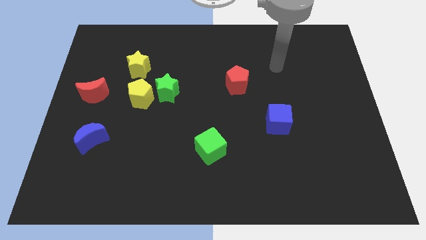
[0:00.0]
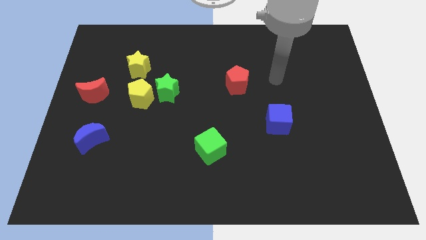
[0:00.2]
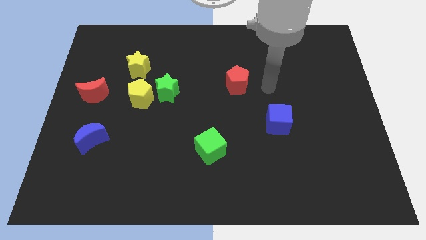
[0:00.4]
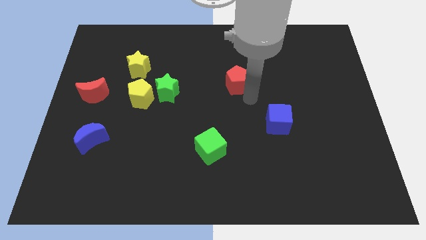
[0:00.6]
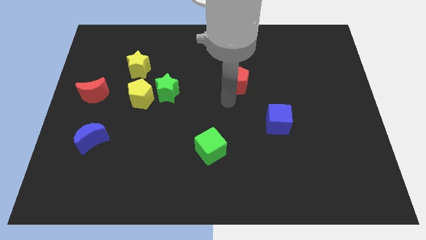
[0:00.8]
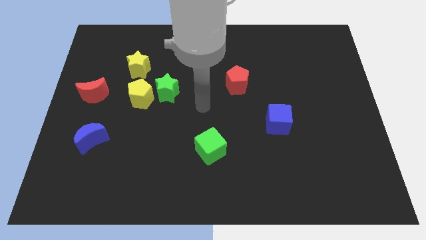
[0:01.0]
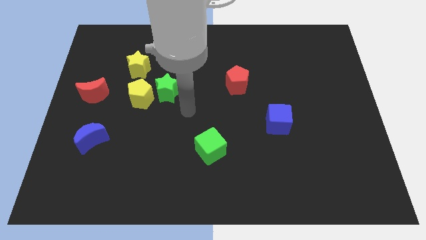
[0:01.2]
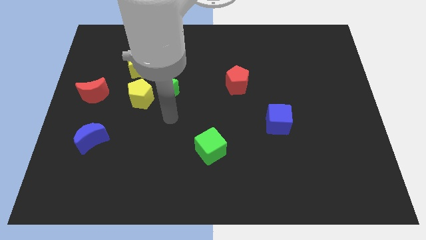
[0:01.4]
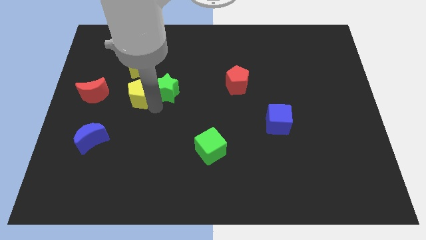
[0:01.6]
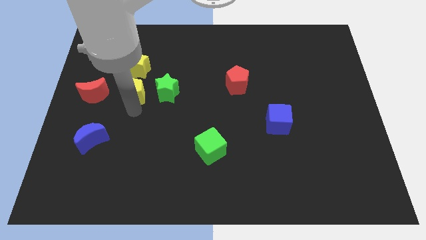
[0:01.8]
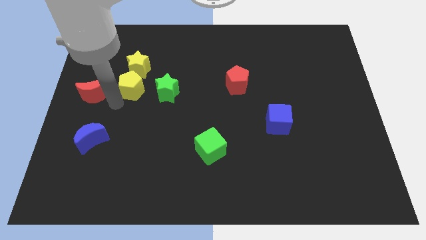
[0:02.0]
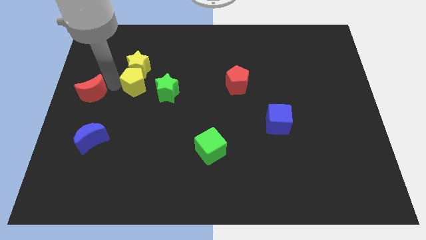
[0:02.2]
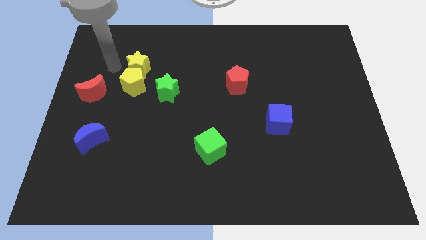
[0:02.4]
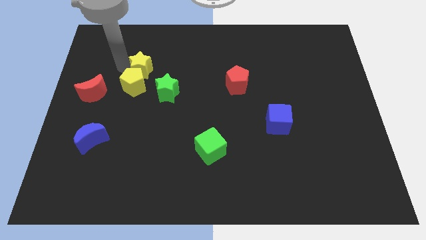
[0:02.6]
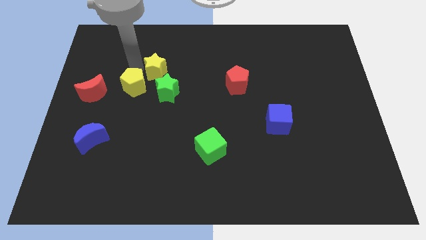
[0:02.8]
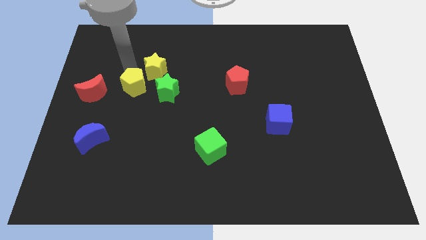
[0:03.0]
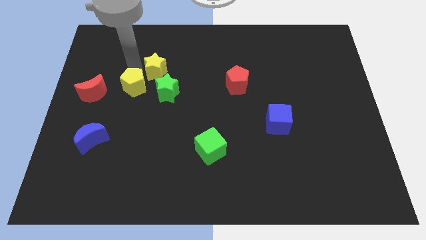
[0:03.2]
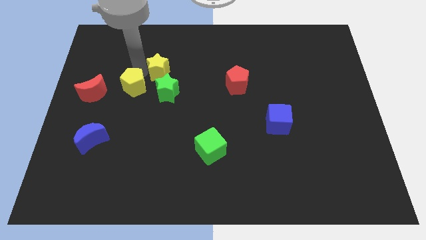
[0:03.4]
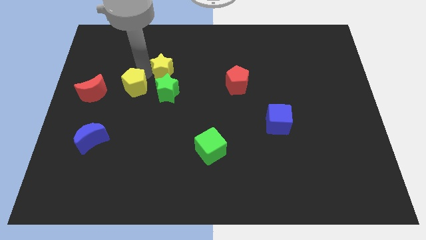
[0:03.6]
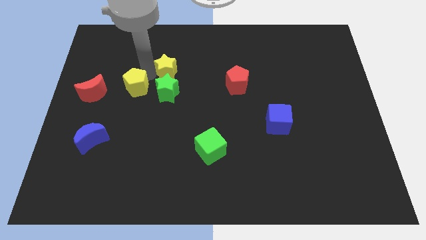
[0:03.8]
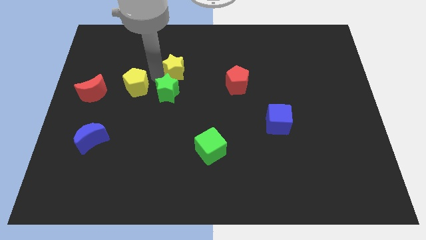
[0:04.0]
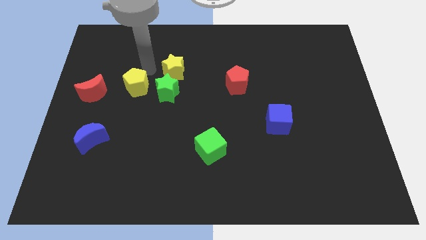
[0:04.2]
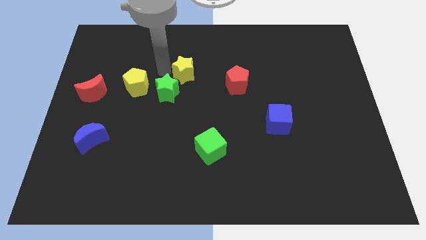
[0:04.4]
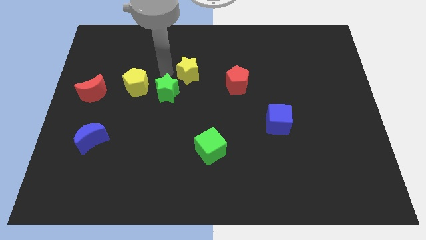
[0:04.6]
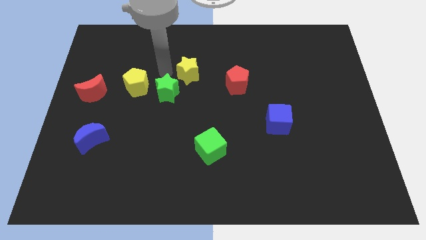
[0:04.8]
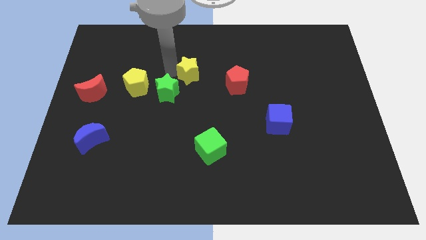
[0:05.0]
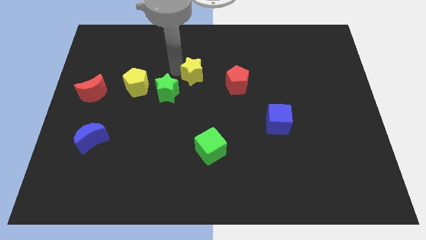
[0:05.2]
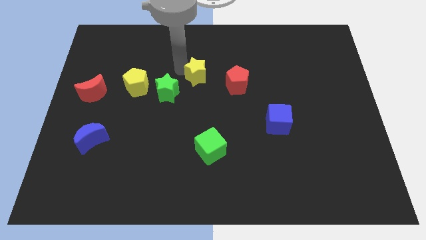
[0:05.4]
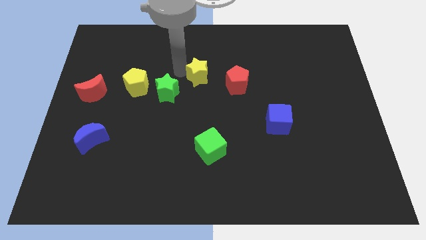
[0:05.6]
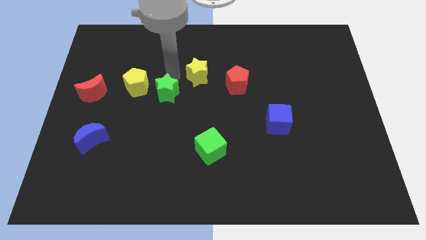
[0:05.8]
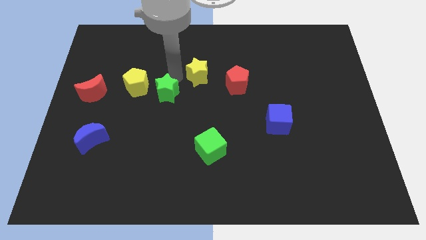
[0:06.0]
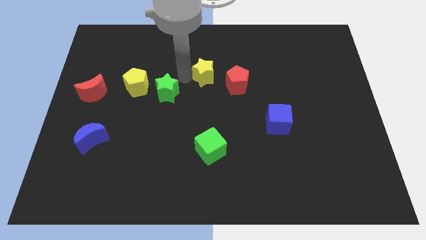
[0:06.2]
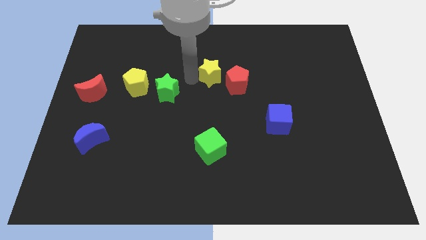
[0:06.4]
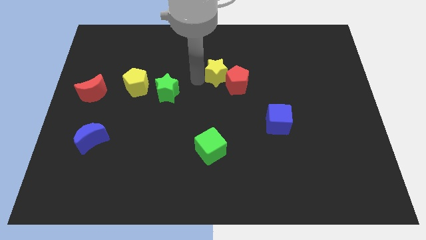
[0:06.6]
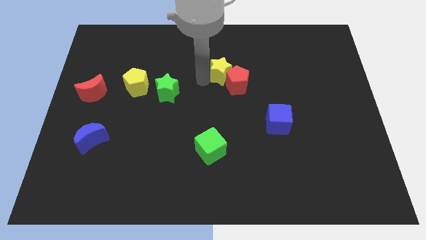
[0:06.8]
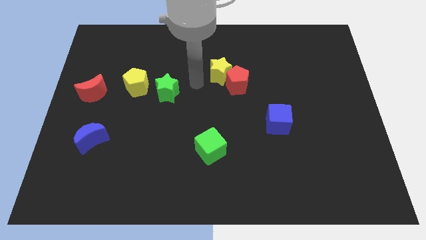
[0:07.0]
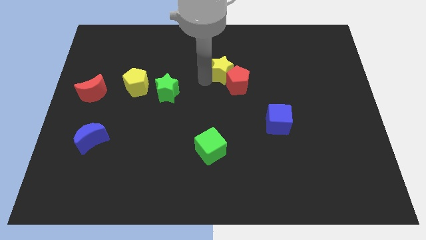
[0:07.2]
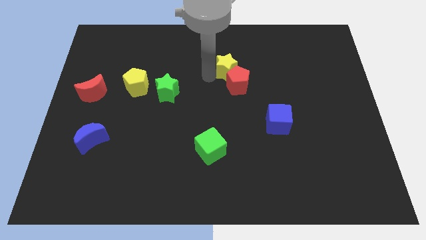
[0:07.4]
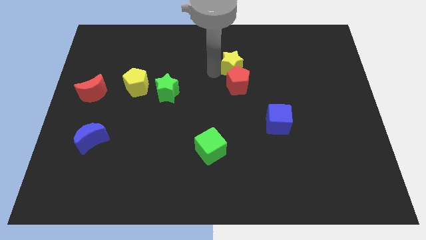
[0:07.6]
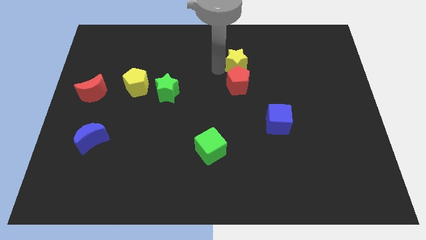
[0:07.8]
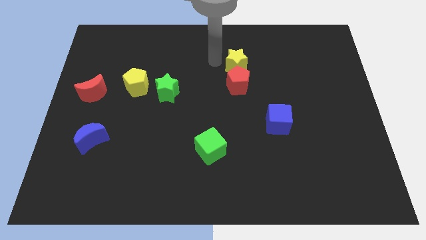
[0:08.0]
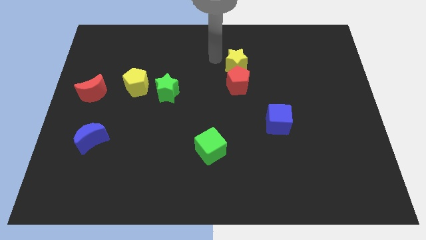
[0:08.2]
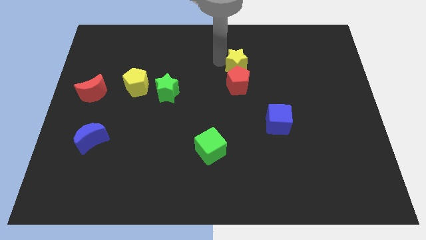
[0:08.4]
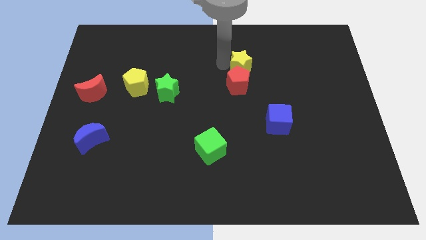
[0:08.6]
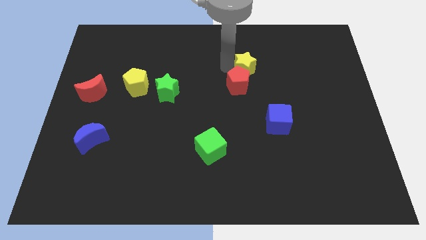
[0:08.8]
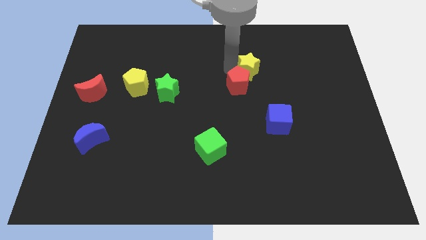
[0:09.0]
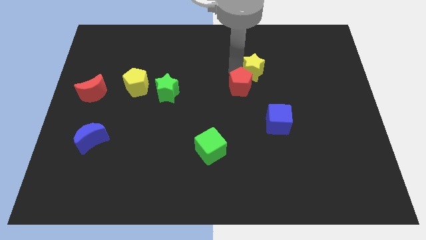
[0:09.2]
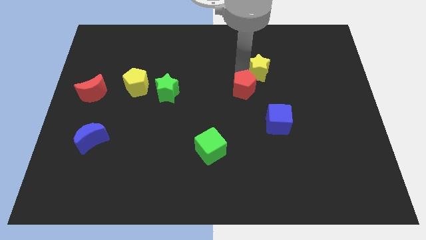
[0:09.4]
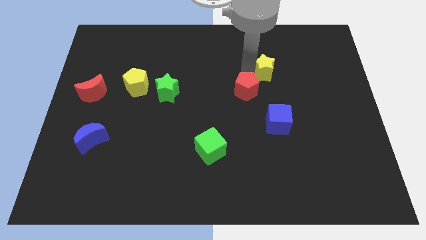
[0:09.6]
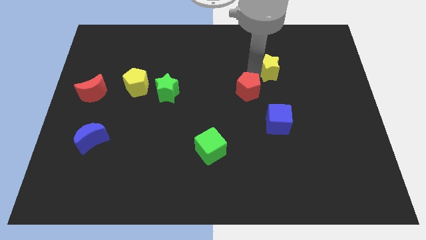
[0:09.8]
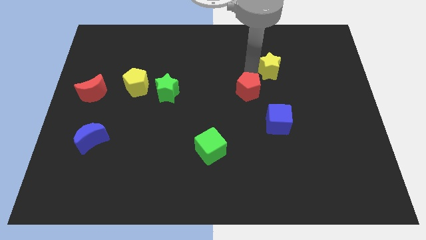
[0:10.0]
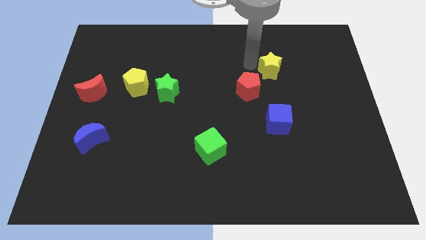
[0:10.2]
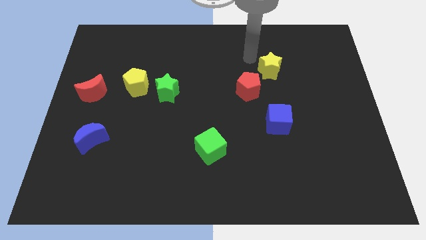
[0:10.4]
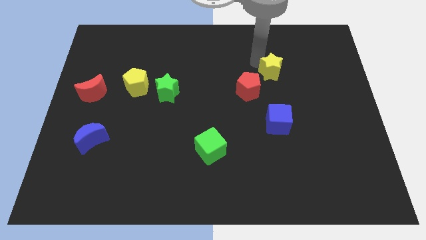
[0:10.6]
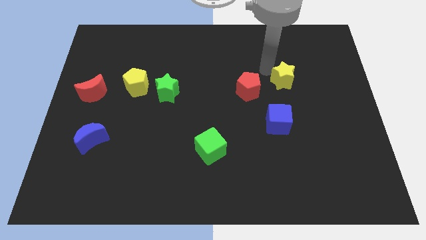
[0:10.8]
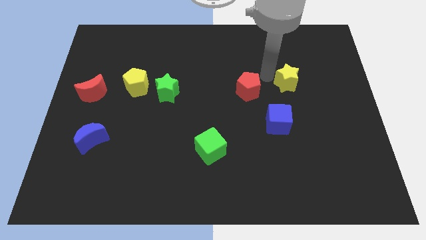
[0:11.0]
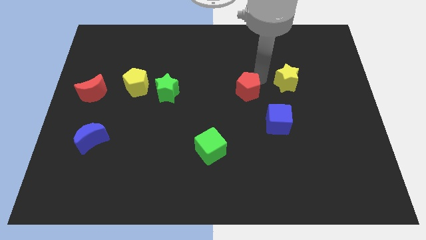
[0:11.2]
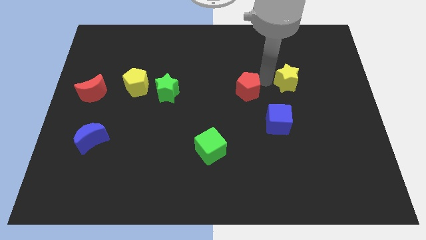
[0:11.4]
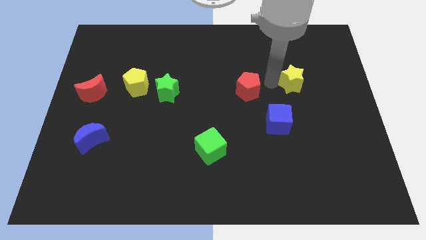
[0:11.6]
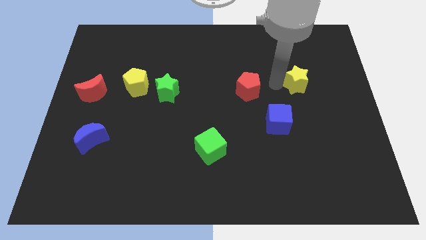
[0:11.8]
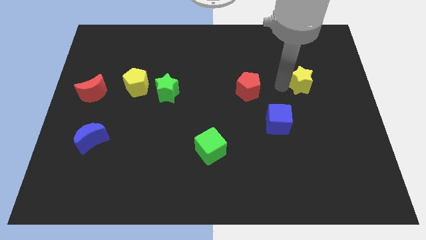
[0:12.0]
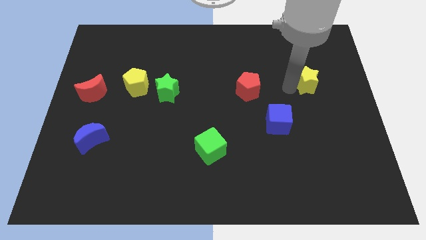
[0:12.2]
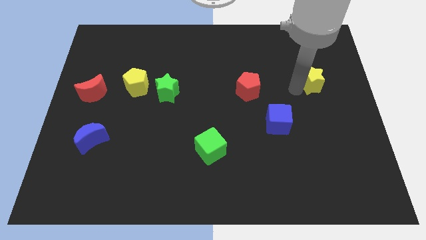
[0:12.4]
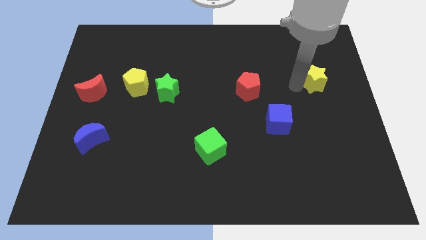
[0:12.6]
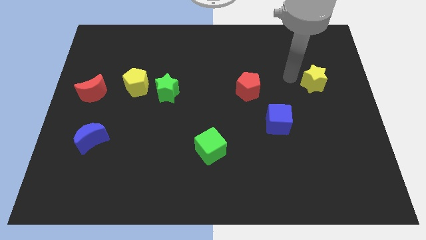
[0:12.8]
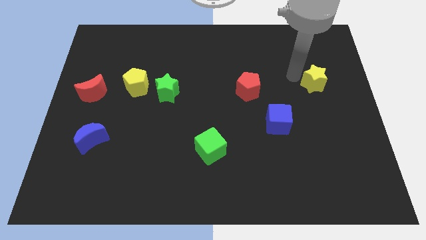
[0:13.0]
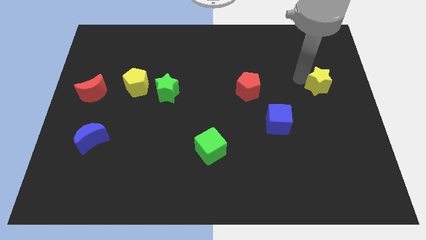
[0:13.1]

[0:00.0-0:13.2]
put the yellow star to the right side of the board
